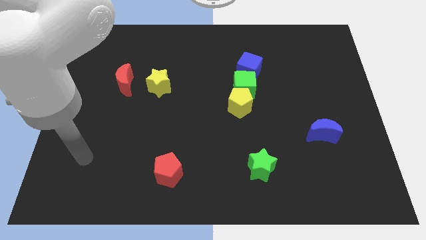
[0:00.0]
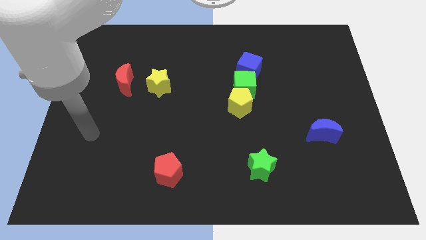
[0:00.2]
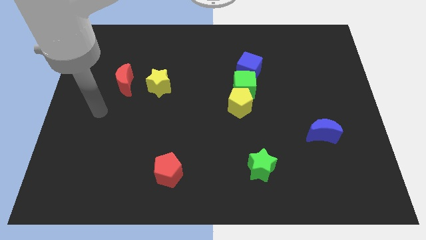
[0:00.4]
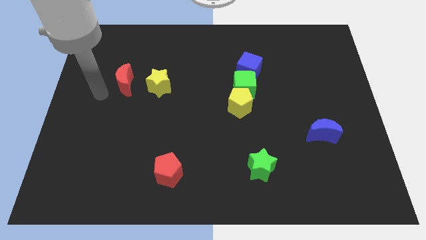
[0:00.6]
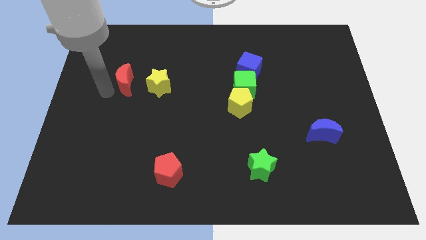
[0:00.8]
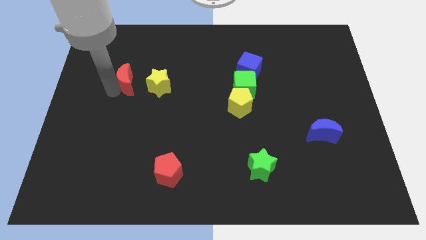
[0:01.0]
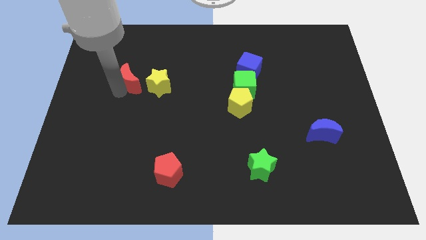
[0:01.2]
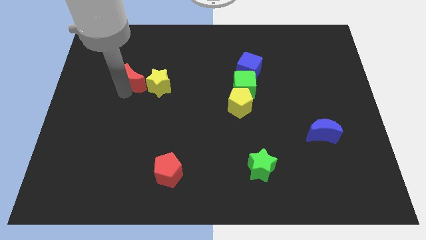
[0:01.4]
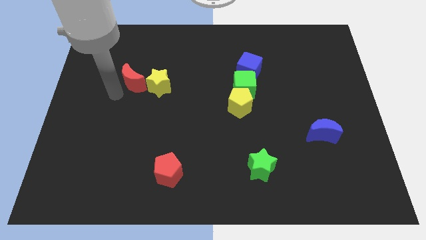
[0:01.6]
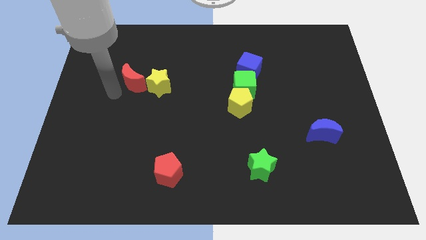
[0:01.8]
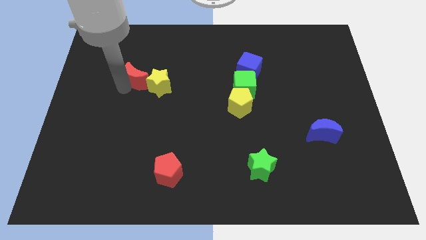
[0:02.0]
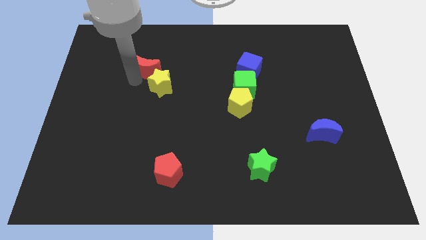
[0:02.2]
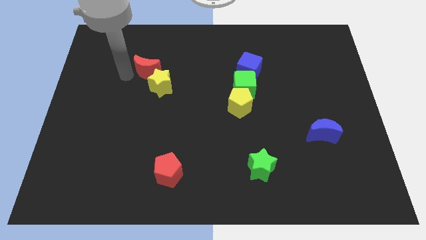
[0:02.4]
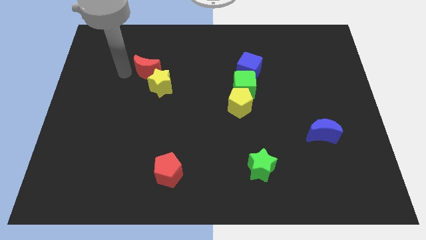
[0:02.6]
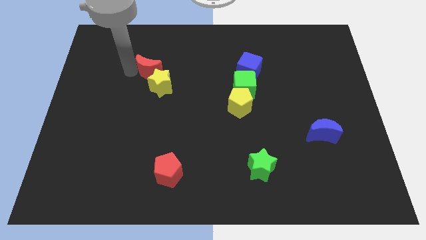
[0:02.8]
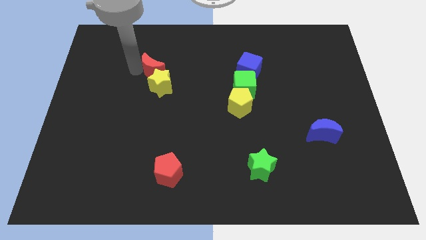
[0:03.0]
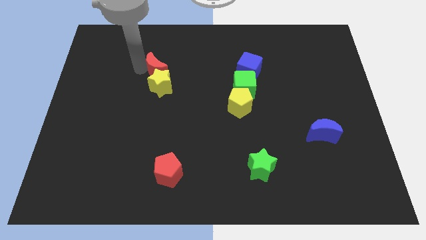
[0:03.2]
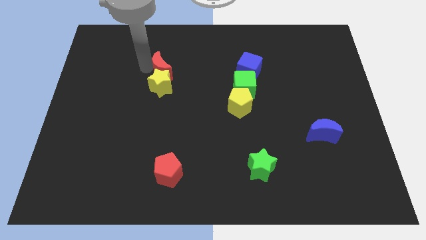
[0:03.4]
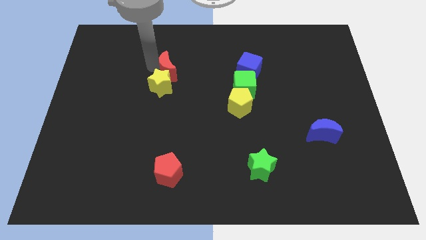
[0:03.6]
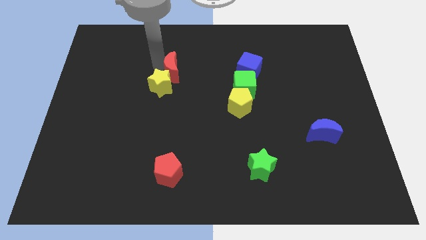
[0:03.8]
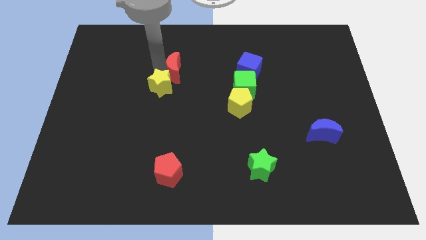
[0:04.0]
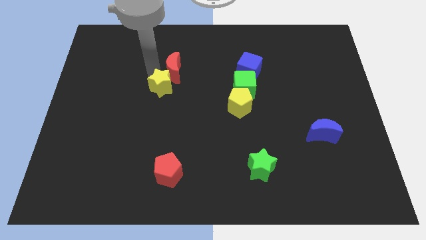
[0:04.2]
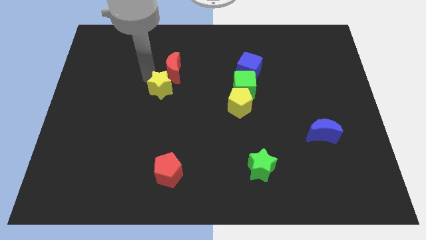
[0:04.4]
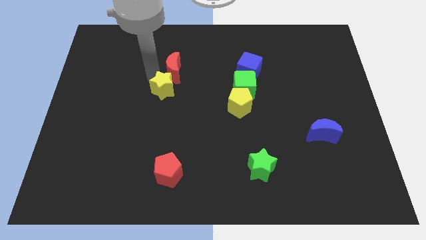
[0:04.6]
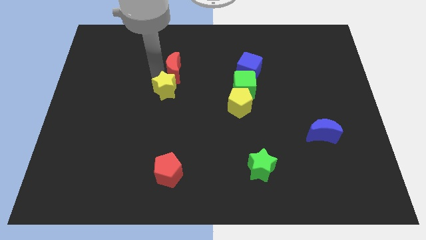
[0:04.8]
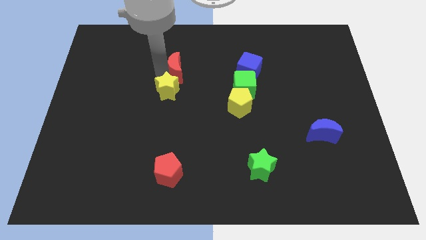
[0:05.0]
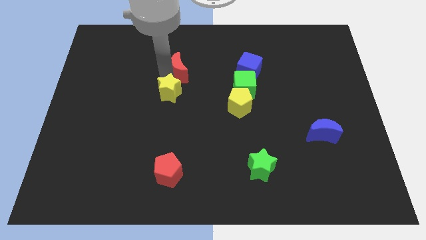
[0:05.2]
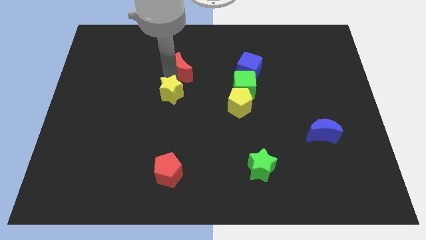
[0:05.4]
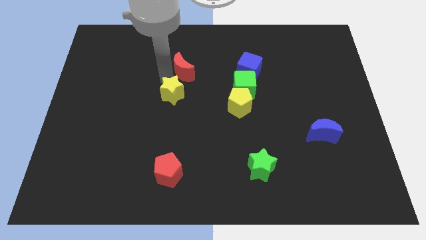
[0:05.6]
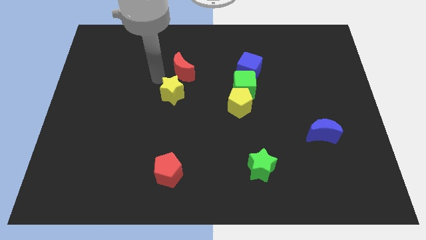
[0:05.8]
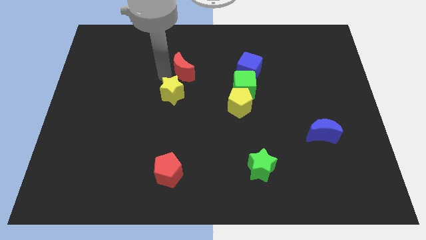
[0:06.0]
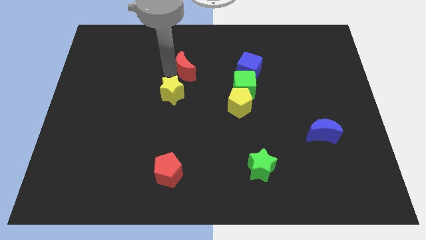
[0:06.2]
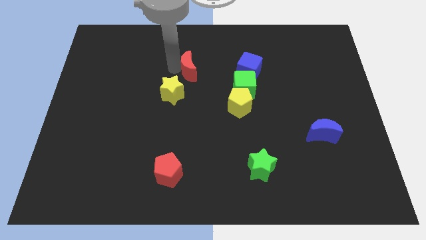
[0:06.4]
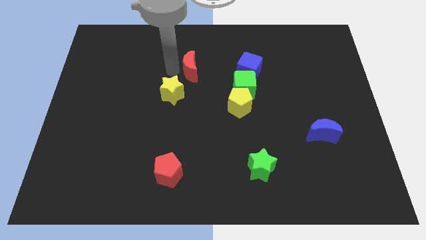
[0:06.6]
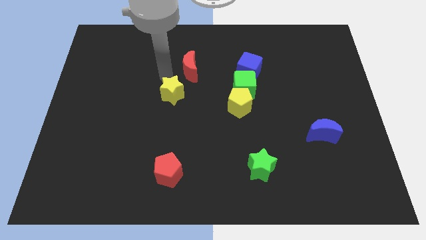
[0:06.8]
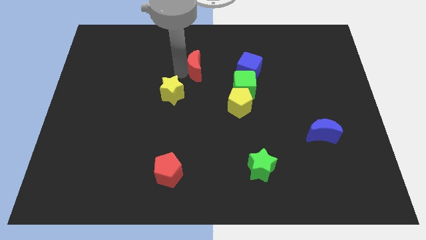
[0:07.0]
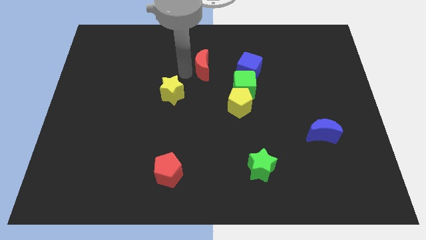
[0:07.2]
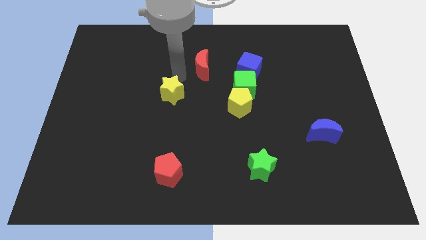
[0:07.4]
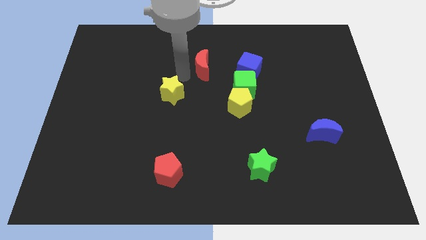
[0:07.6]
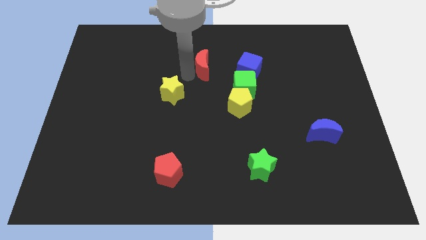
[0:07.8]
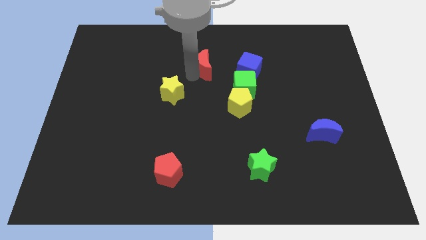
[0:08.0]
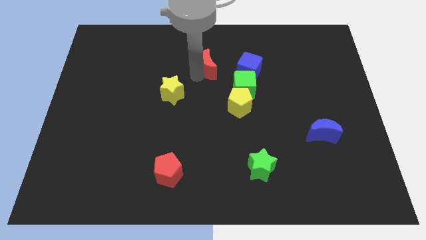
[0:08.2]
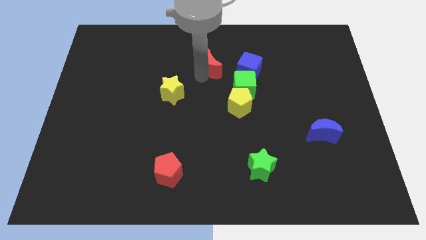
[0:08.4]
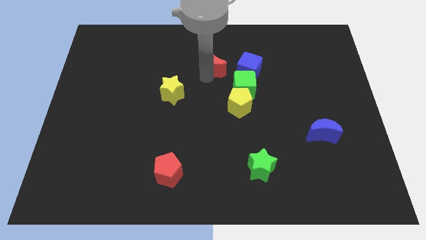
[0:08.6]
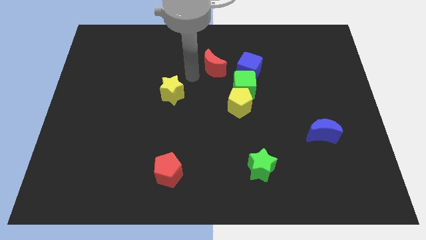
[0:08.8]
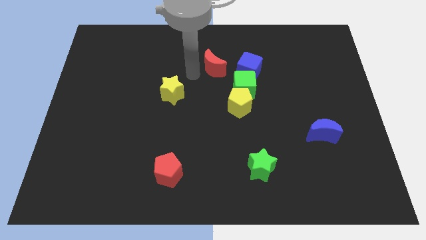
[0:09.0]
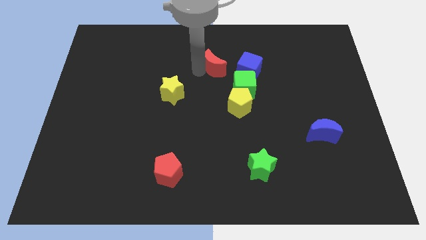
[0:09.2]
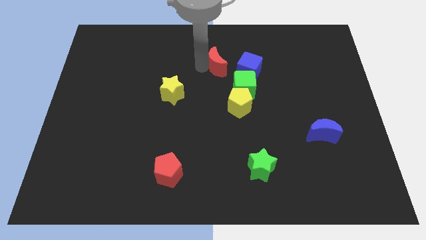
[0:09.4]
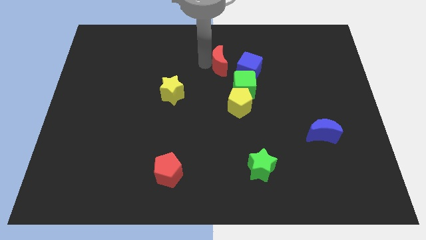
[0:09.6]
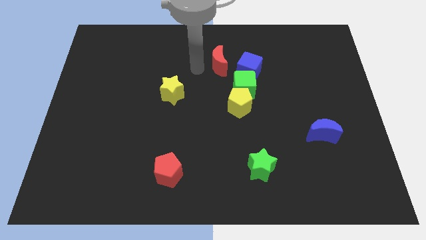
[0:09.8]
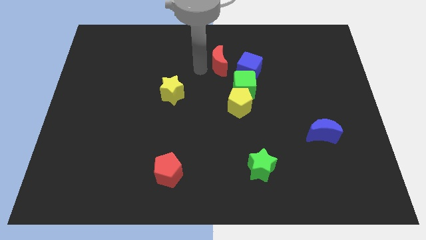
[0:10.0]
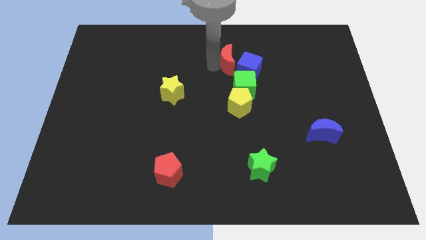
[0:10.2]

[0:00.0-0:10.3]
slide the red moon to the top side of the green cube

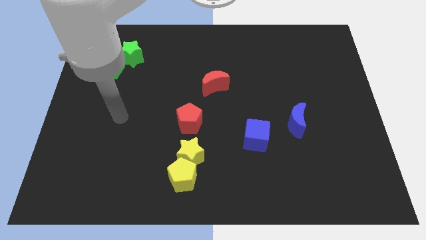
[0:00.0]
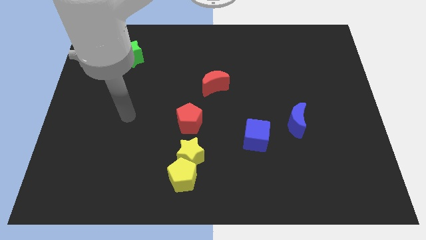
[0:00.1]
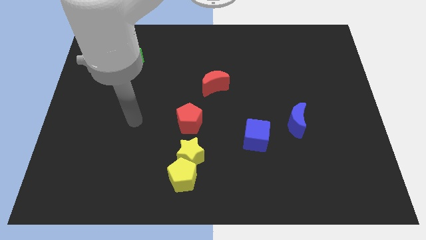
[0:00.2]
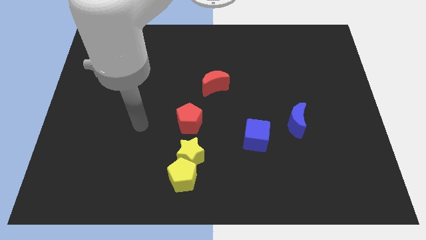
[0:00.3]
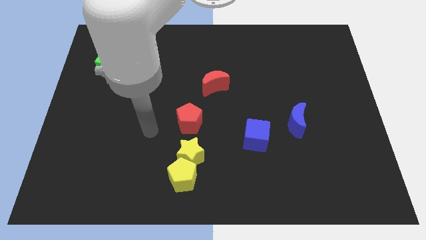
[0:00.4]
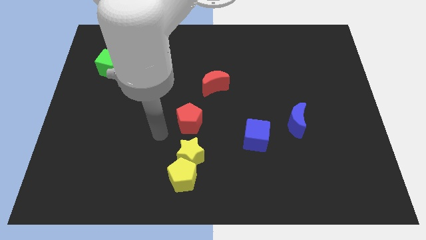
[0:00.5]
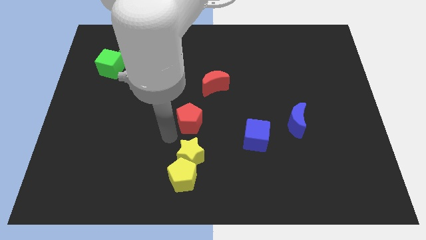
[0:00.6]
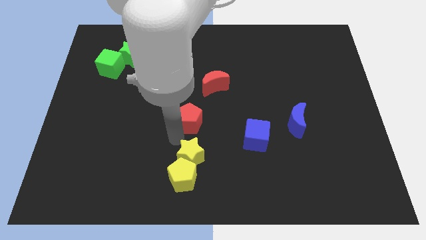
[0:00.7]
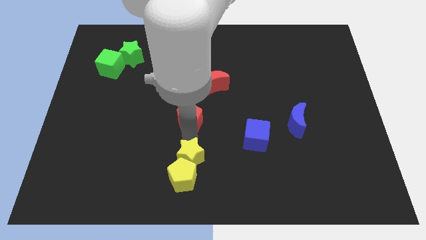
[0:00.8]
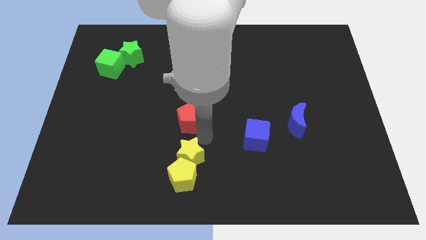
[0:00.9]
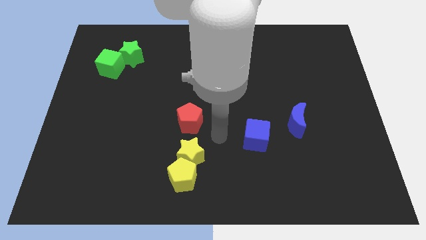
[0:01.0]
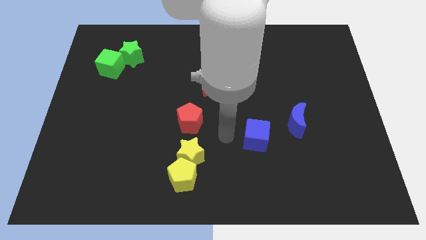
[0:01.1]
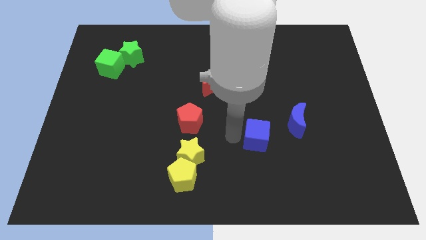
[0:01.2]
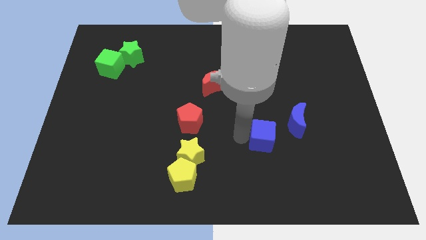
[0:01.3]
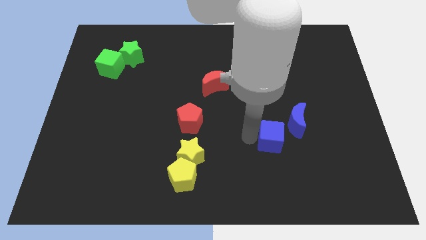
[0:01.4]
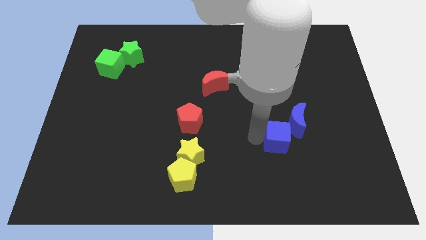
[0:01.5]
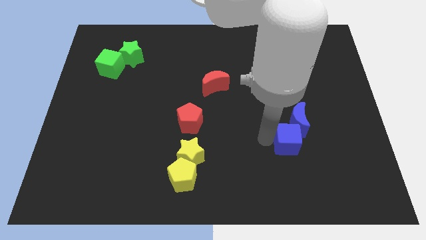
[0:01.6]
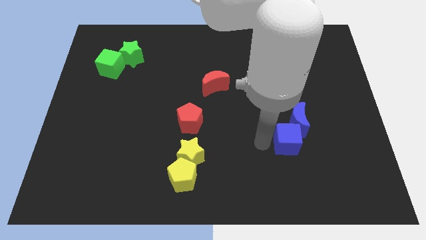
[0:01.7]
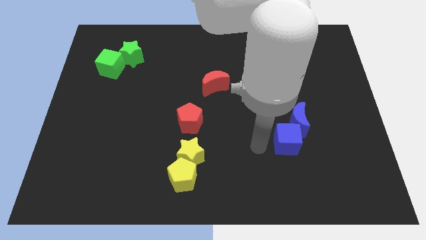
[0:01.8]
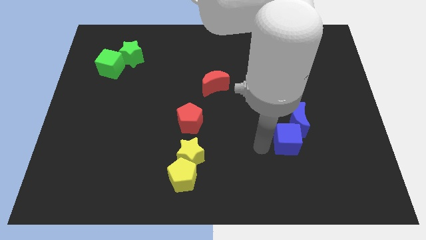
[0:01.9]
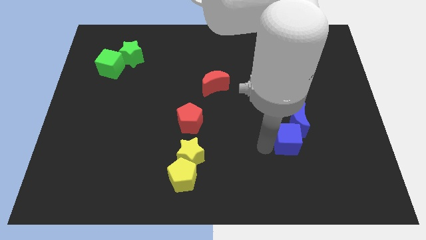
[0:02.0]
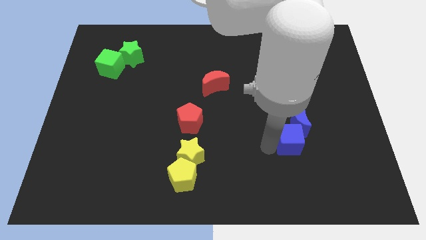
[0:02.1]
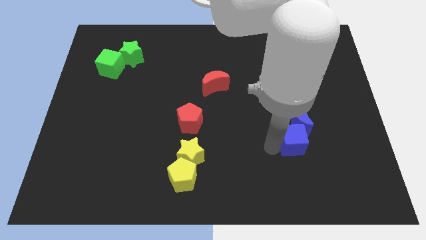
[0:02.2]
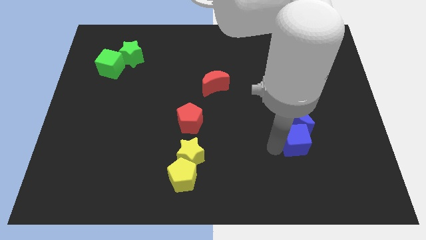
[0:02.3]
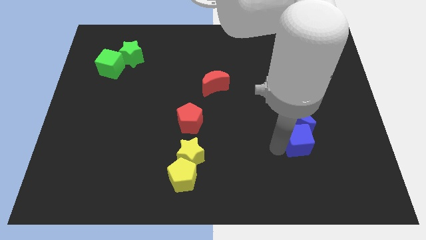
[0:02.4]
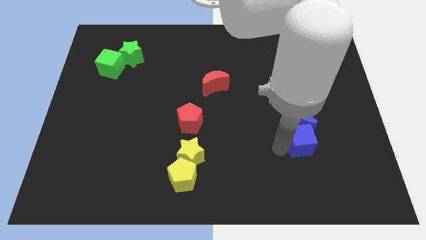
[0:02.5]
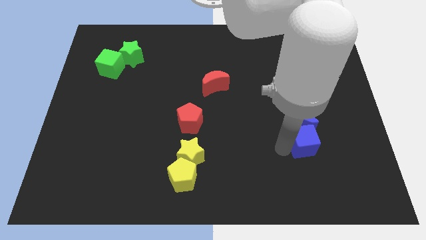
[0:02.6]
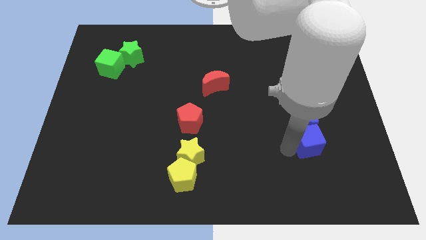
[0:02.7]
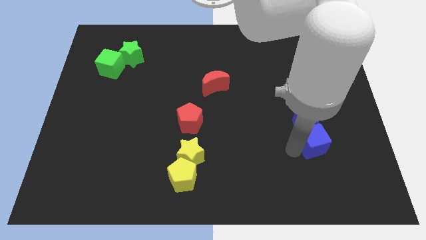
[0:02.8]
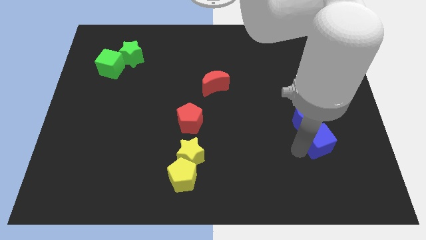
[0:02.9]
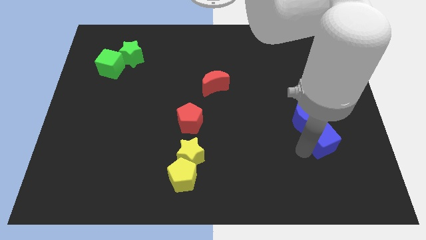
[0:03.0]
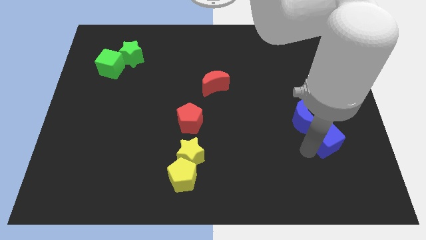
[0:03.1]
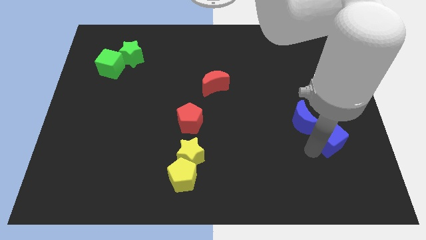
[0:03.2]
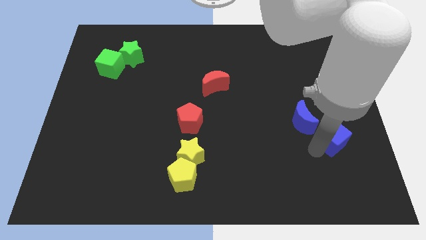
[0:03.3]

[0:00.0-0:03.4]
push the blue cube just right of the blue moon
